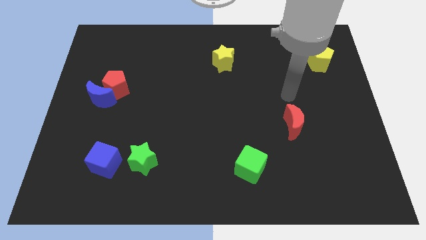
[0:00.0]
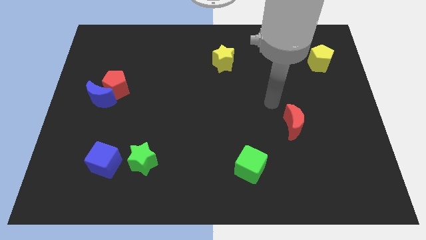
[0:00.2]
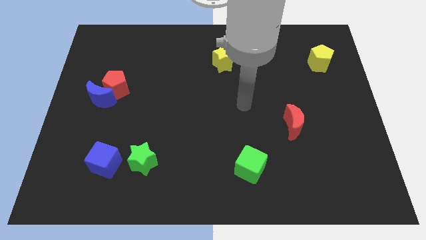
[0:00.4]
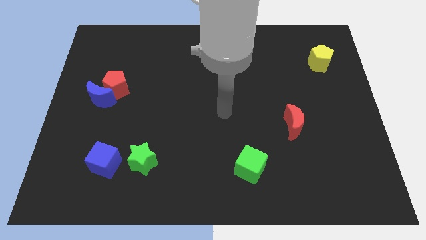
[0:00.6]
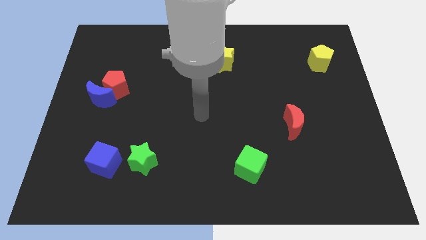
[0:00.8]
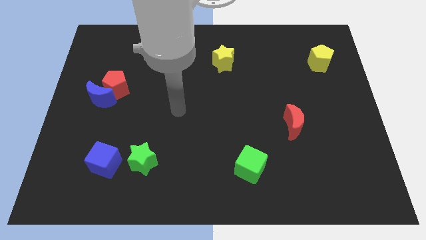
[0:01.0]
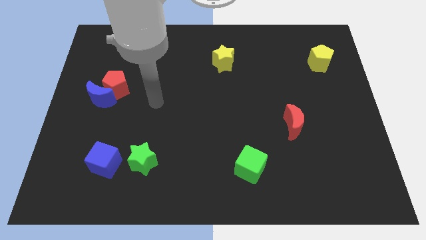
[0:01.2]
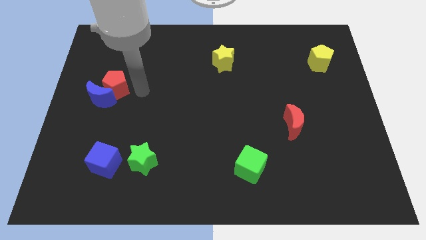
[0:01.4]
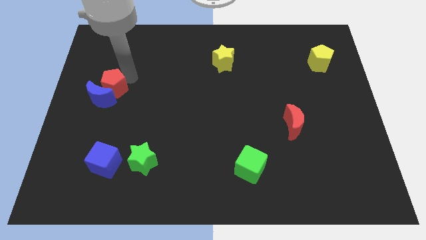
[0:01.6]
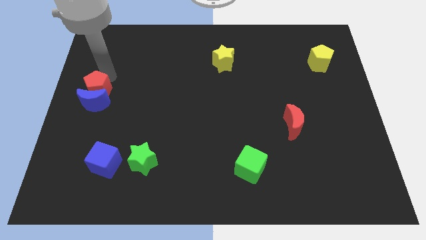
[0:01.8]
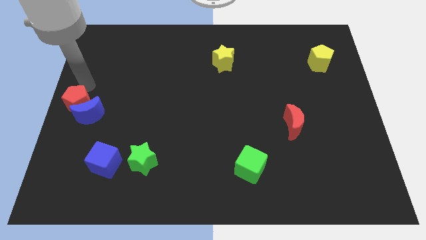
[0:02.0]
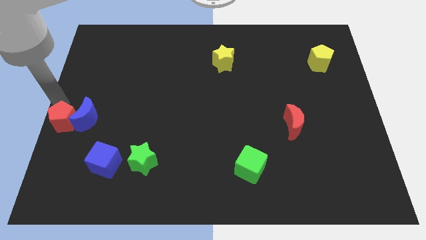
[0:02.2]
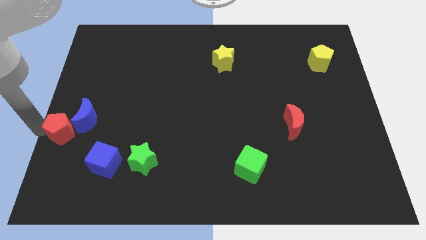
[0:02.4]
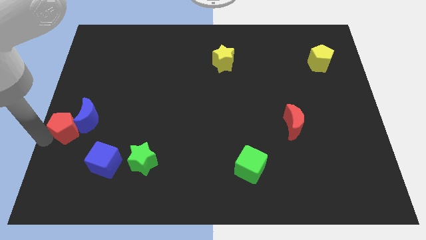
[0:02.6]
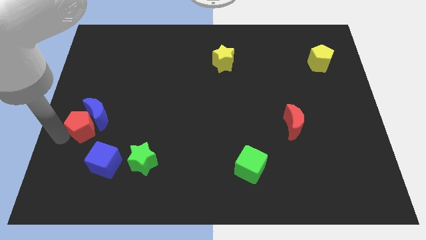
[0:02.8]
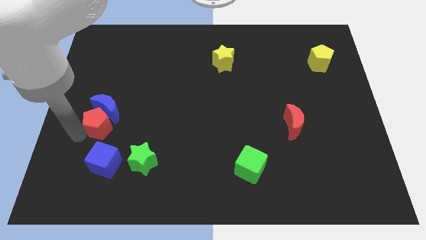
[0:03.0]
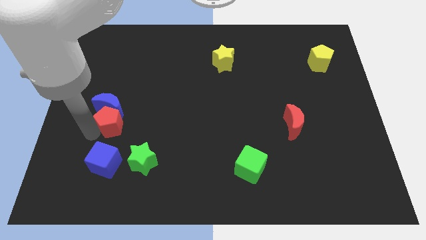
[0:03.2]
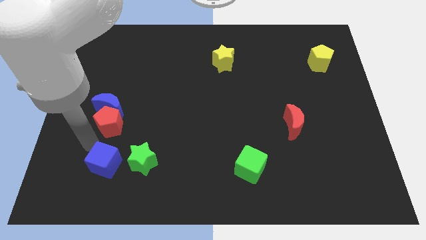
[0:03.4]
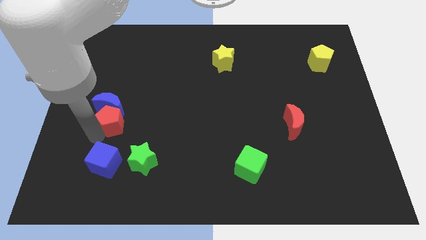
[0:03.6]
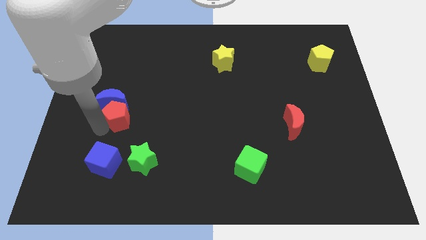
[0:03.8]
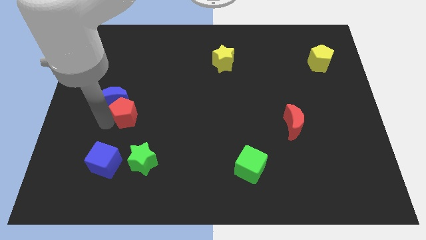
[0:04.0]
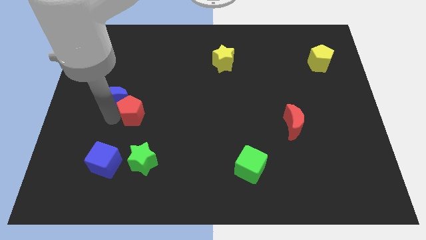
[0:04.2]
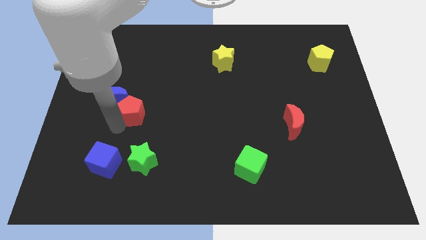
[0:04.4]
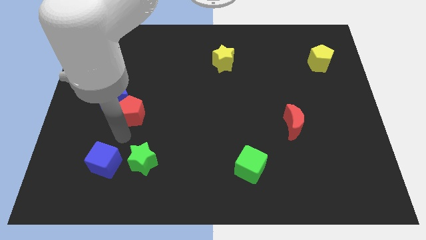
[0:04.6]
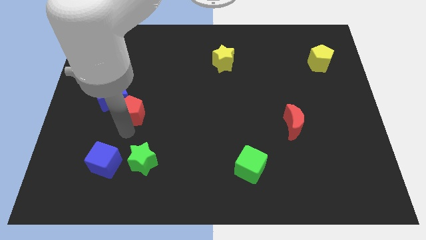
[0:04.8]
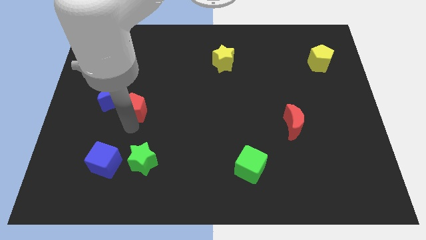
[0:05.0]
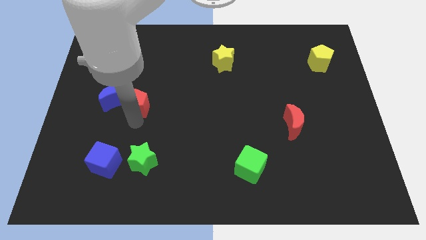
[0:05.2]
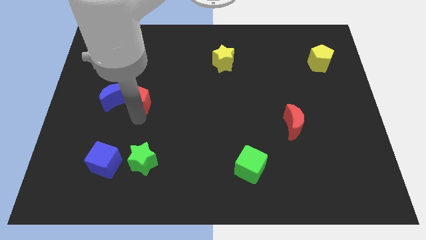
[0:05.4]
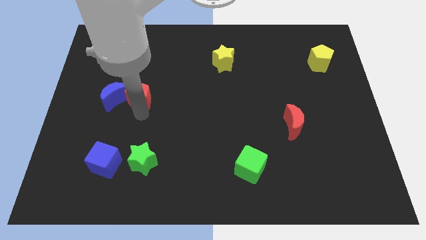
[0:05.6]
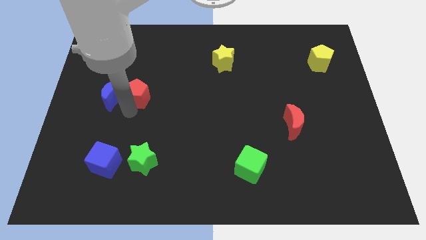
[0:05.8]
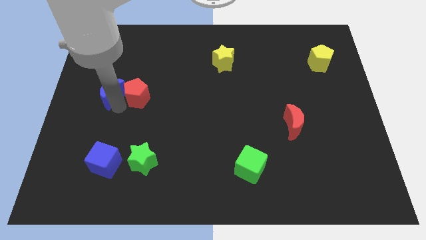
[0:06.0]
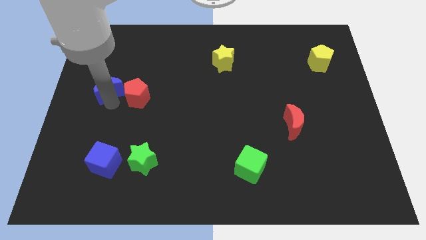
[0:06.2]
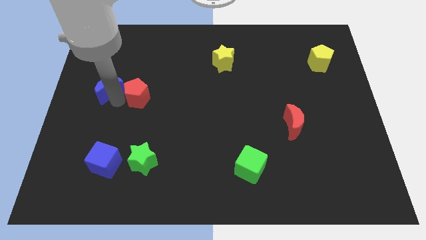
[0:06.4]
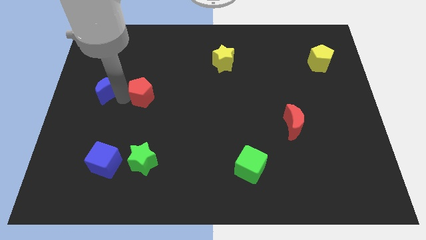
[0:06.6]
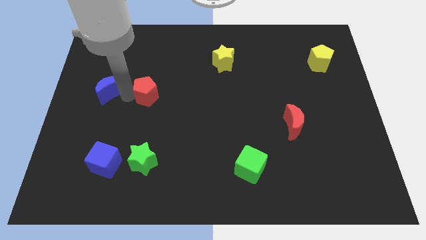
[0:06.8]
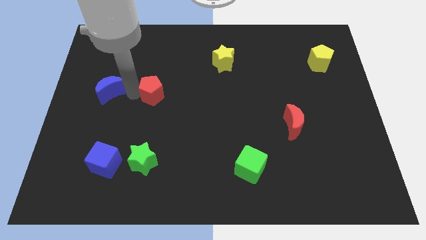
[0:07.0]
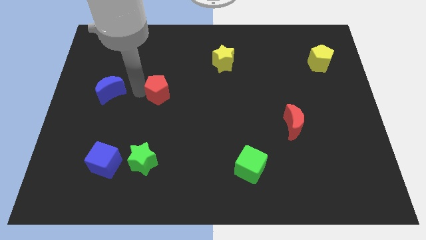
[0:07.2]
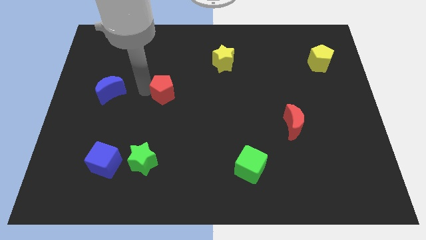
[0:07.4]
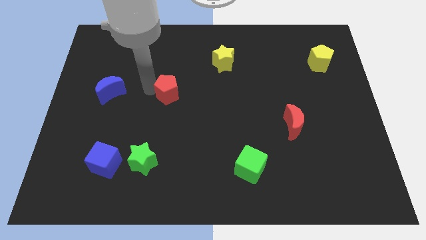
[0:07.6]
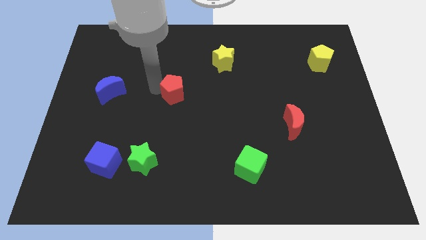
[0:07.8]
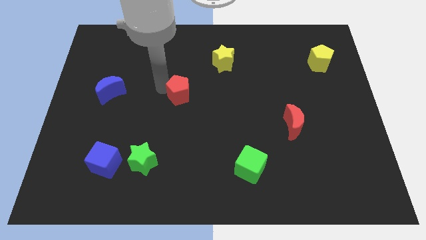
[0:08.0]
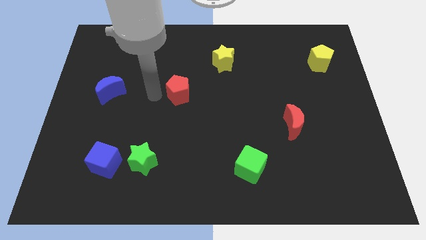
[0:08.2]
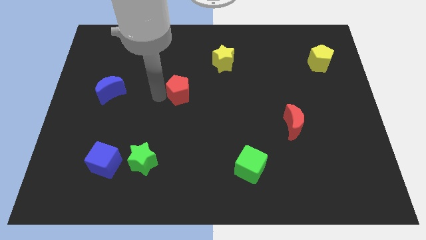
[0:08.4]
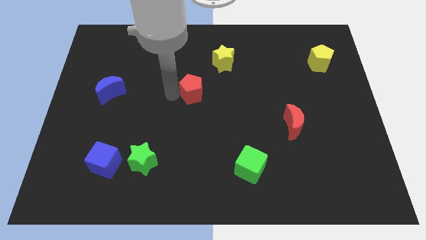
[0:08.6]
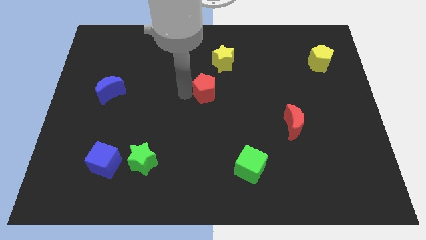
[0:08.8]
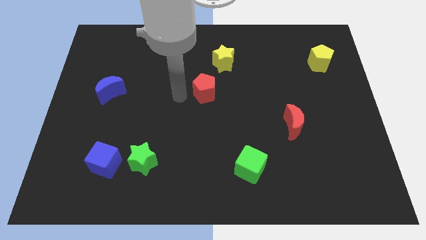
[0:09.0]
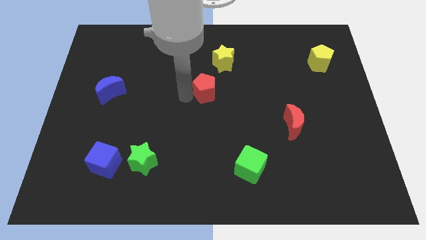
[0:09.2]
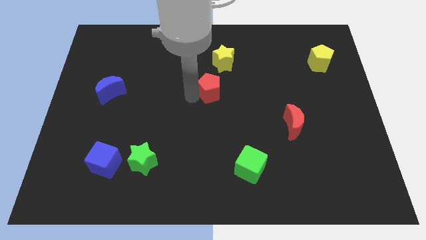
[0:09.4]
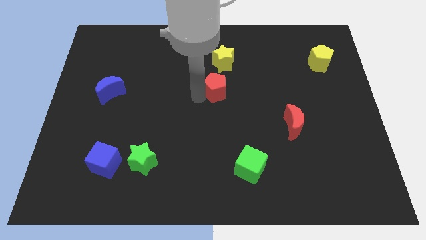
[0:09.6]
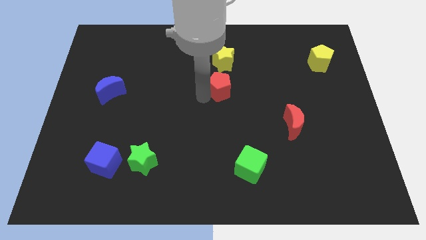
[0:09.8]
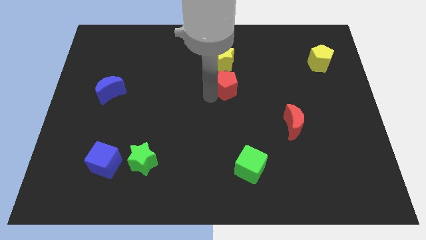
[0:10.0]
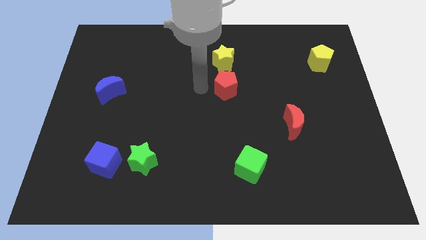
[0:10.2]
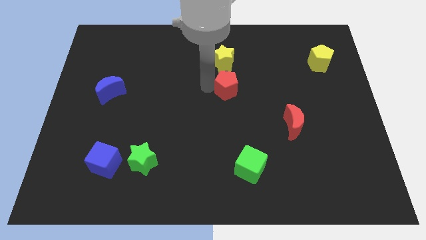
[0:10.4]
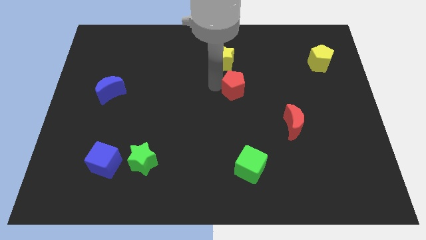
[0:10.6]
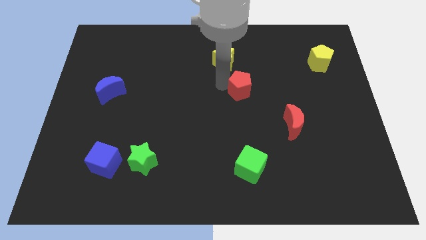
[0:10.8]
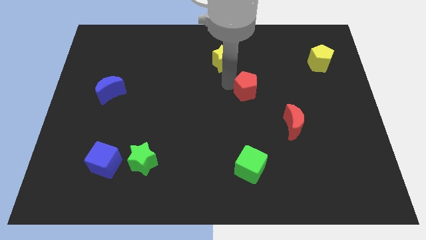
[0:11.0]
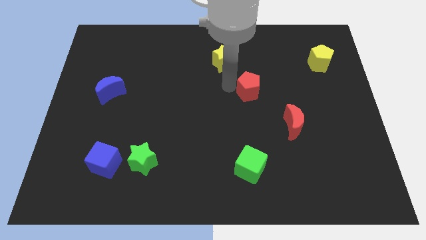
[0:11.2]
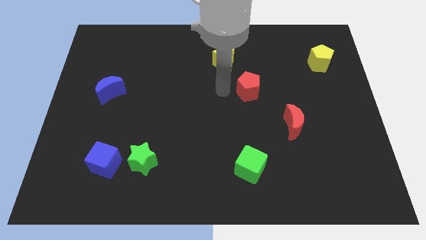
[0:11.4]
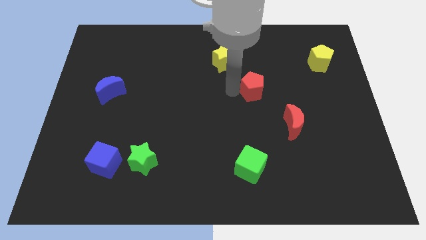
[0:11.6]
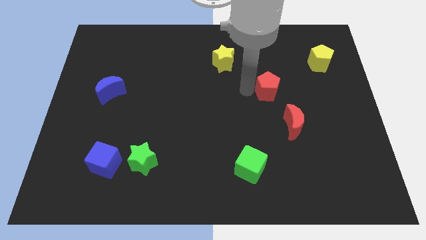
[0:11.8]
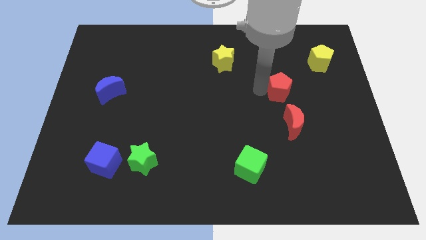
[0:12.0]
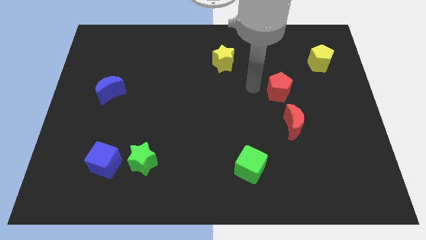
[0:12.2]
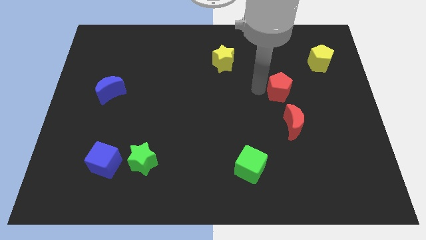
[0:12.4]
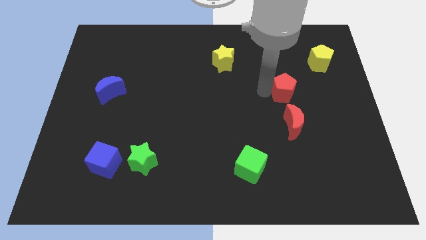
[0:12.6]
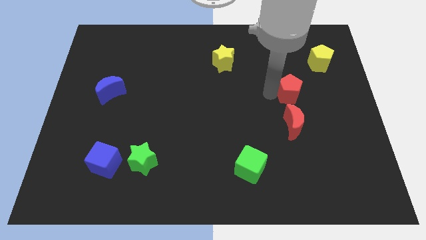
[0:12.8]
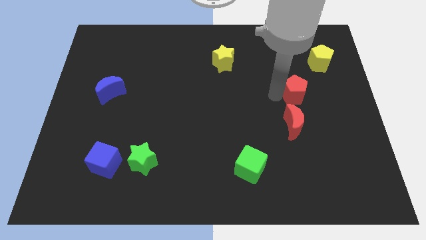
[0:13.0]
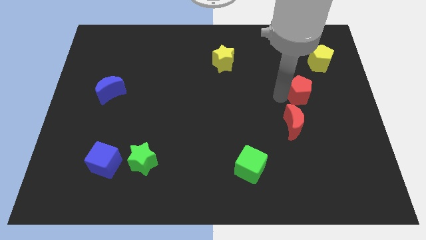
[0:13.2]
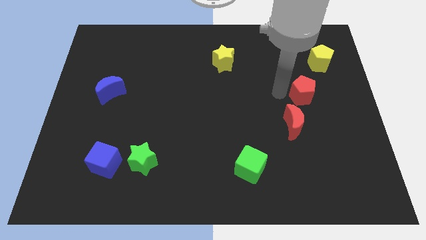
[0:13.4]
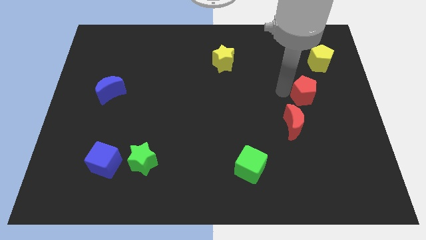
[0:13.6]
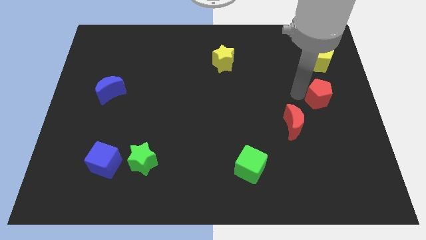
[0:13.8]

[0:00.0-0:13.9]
put the red pentagon to the right side of the board
